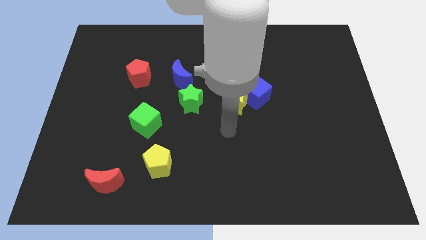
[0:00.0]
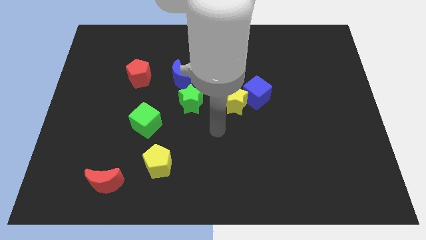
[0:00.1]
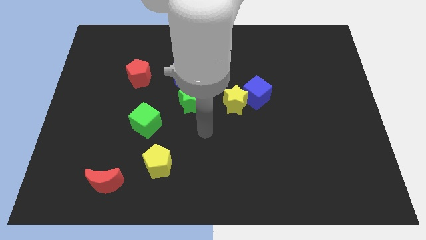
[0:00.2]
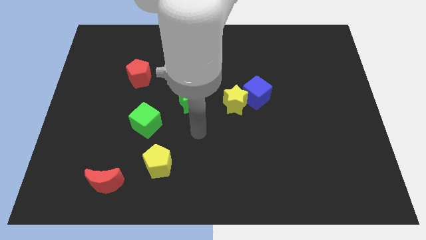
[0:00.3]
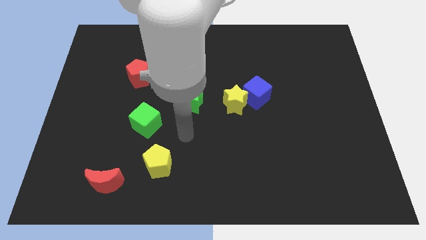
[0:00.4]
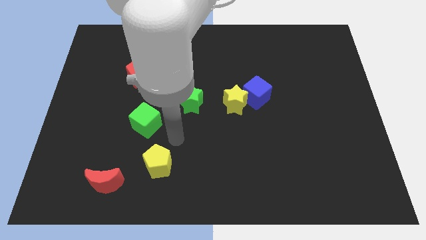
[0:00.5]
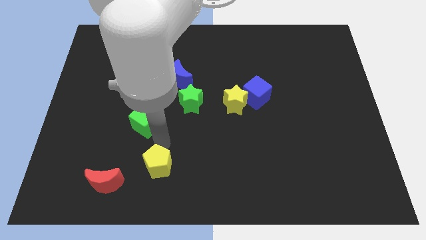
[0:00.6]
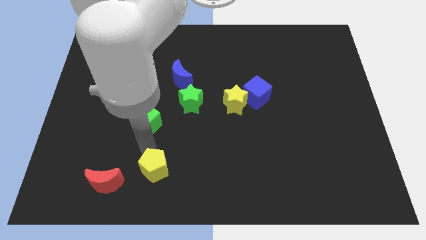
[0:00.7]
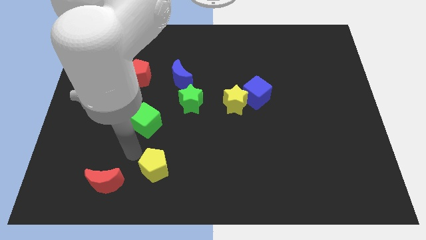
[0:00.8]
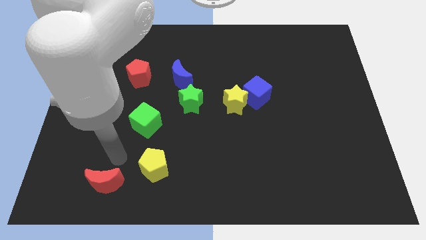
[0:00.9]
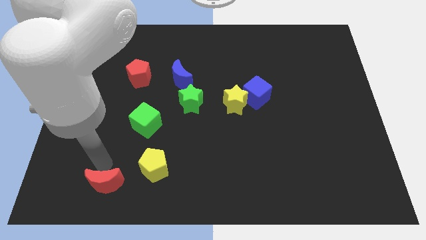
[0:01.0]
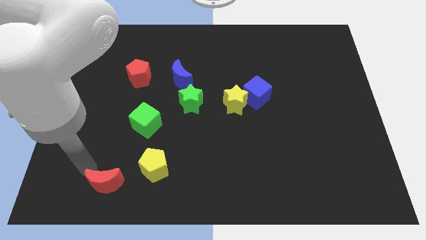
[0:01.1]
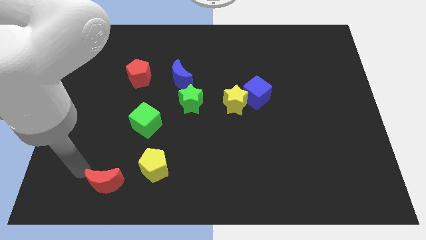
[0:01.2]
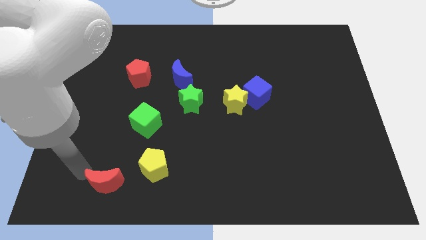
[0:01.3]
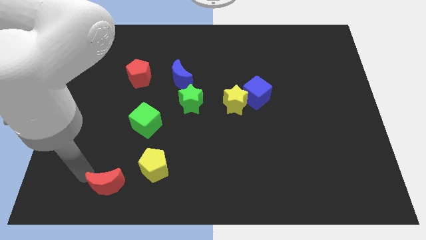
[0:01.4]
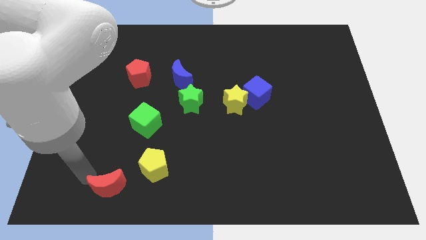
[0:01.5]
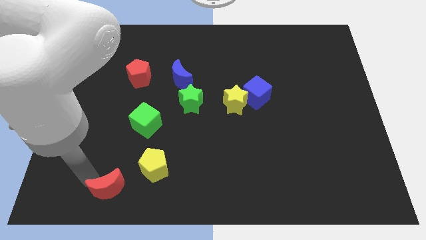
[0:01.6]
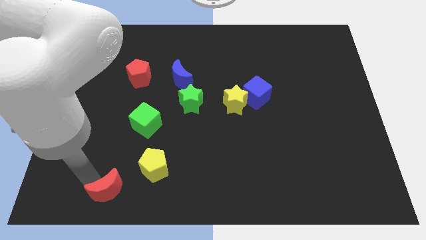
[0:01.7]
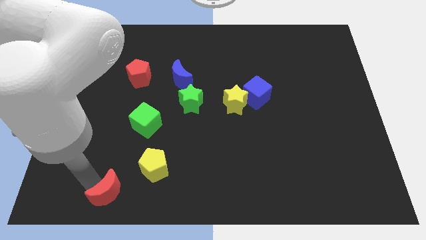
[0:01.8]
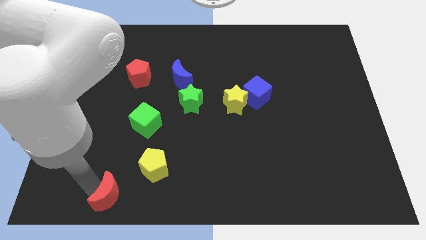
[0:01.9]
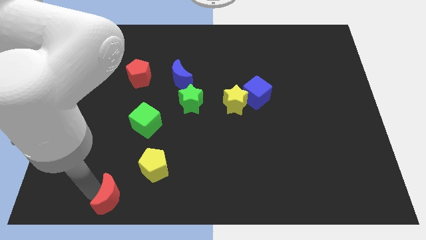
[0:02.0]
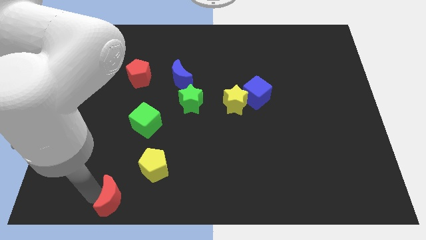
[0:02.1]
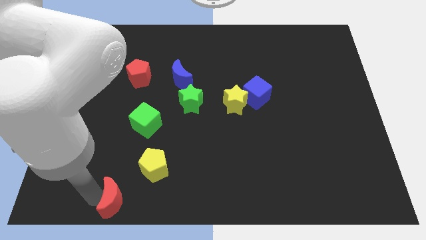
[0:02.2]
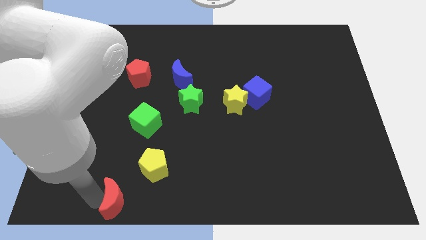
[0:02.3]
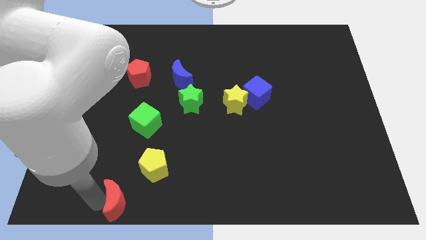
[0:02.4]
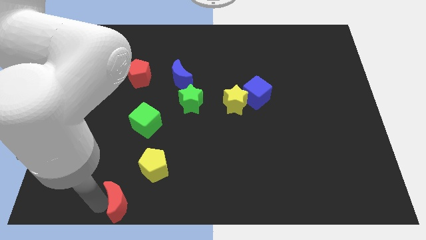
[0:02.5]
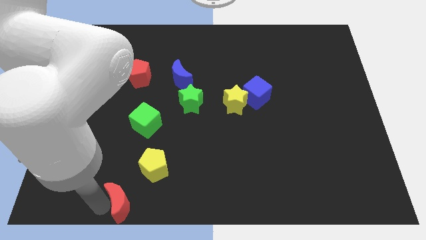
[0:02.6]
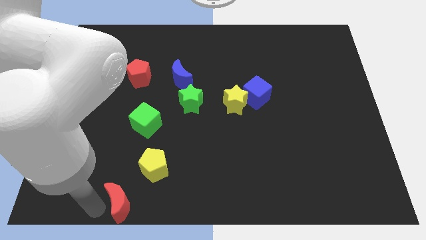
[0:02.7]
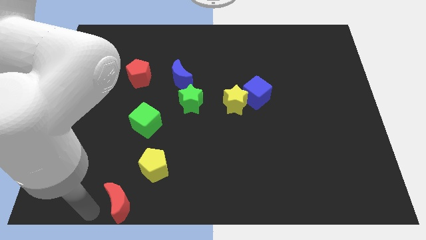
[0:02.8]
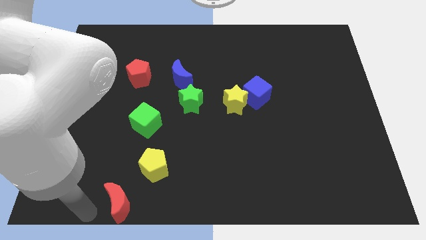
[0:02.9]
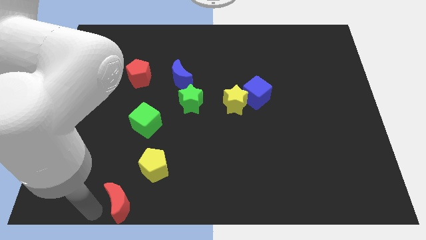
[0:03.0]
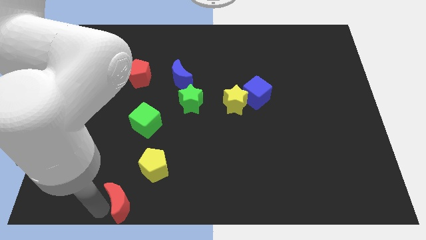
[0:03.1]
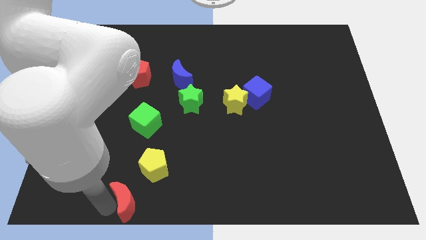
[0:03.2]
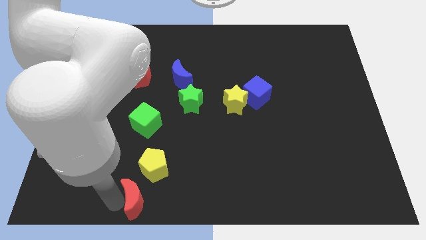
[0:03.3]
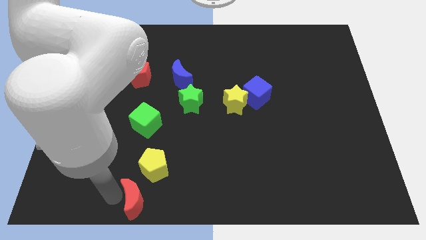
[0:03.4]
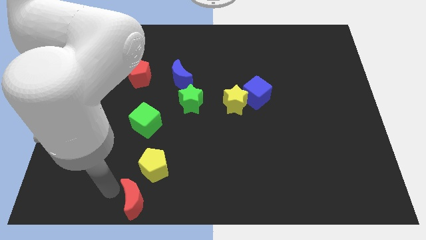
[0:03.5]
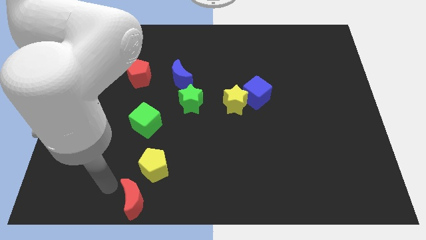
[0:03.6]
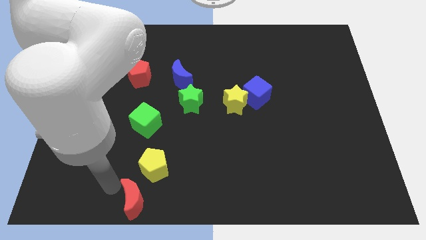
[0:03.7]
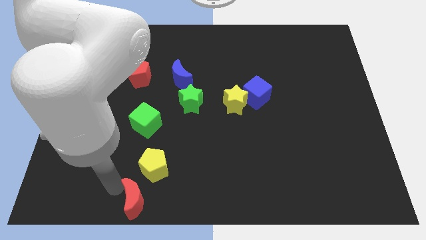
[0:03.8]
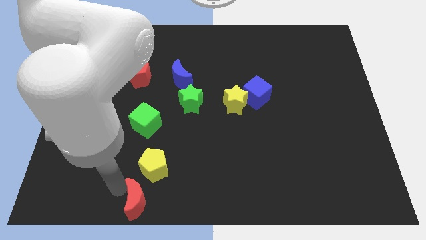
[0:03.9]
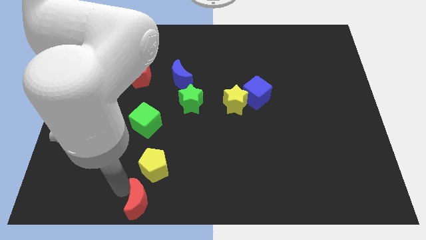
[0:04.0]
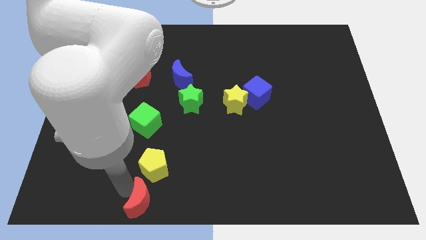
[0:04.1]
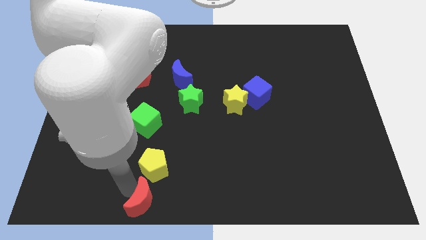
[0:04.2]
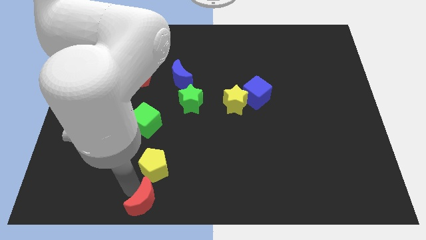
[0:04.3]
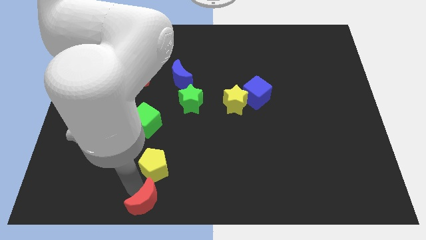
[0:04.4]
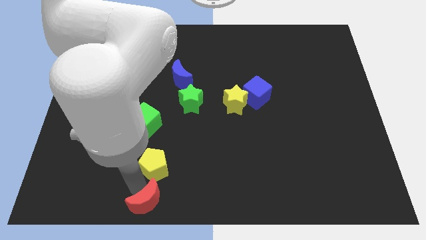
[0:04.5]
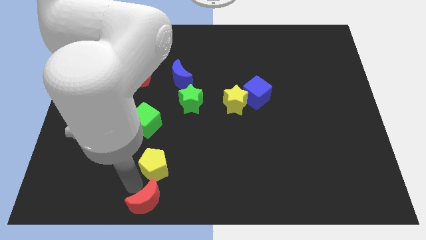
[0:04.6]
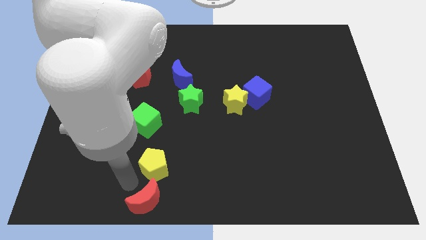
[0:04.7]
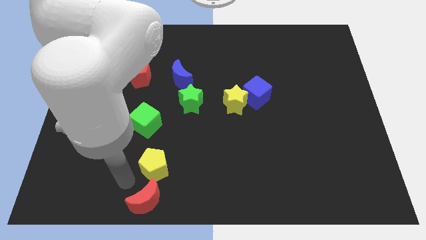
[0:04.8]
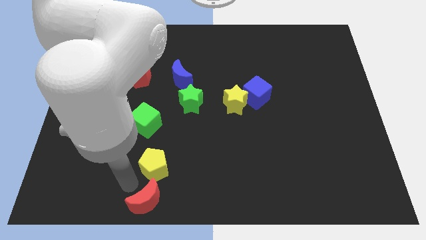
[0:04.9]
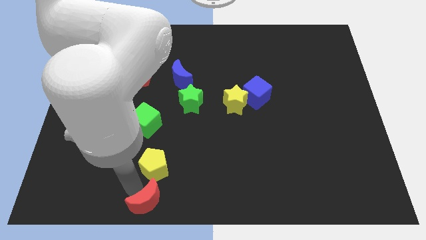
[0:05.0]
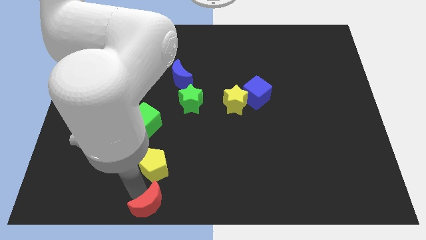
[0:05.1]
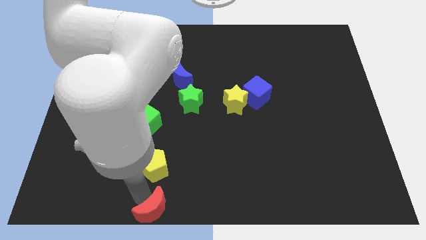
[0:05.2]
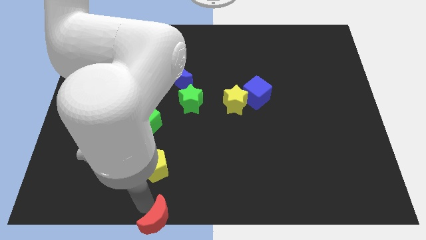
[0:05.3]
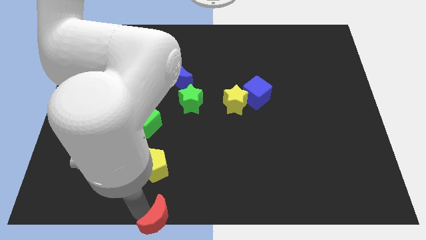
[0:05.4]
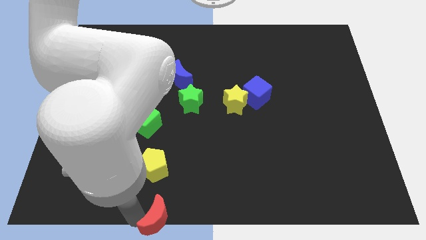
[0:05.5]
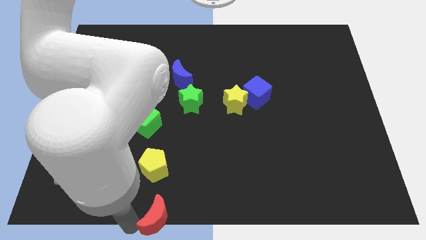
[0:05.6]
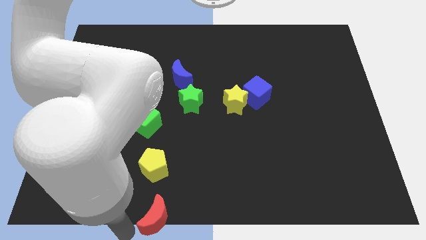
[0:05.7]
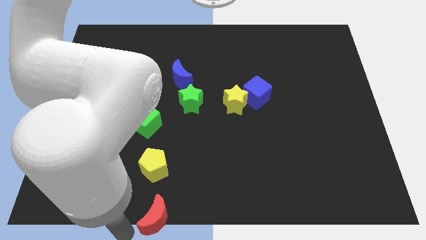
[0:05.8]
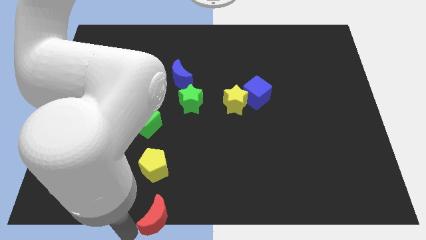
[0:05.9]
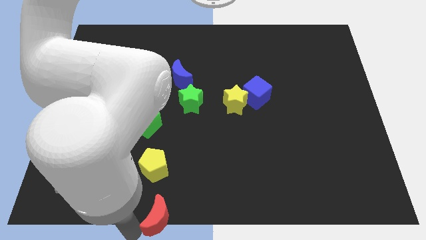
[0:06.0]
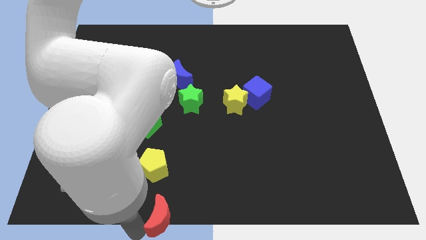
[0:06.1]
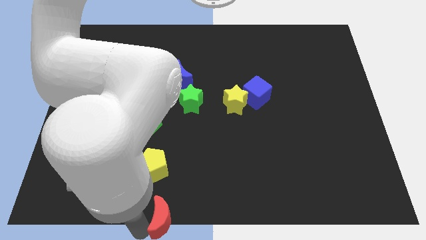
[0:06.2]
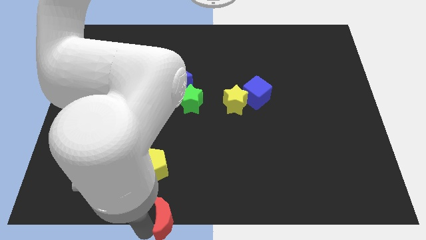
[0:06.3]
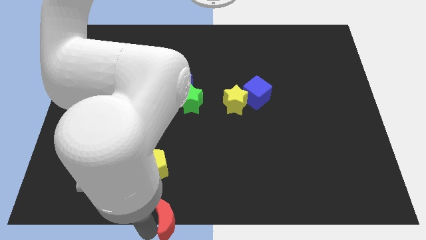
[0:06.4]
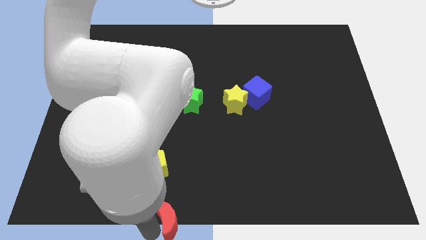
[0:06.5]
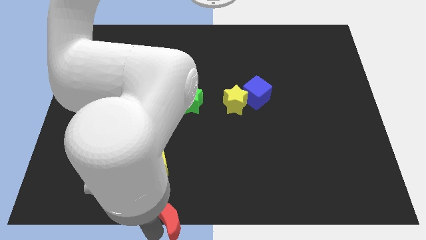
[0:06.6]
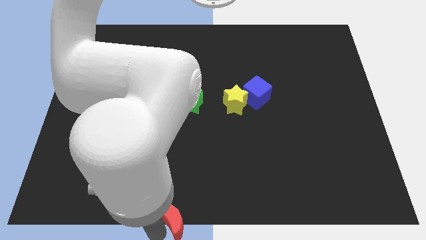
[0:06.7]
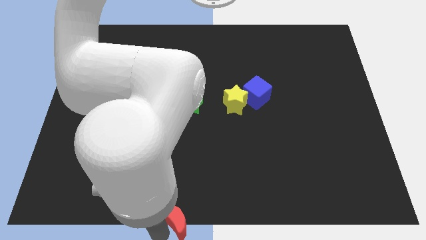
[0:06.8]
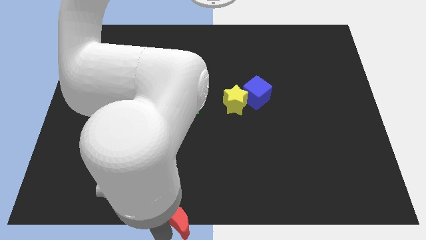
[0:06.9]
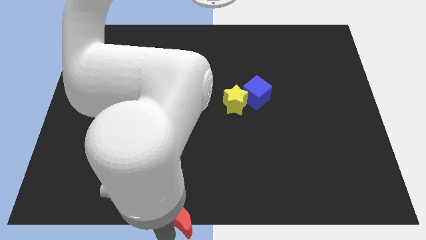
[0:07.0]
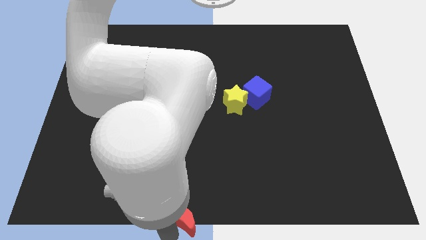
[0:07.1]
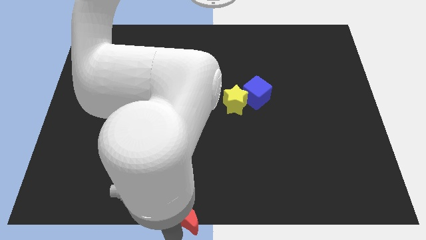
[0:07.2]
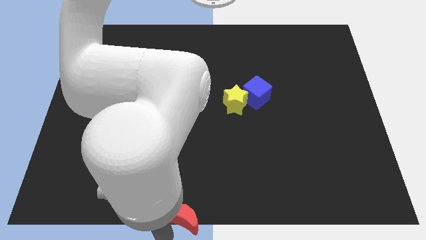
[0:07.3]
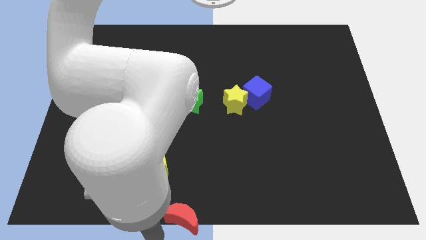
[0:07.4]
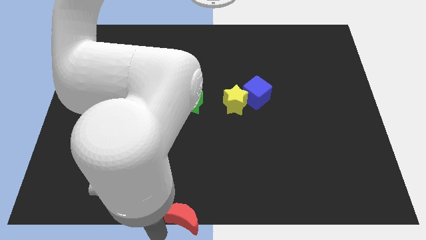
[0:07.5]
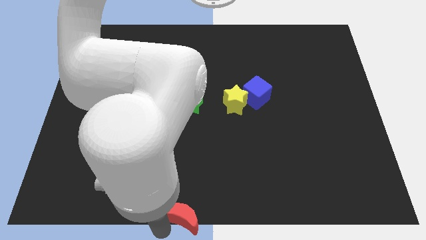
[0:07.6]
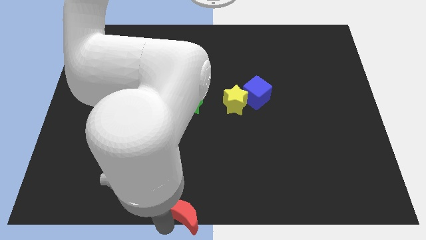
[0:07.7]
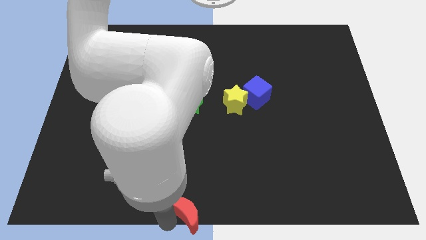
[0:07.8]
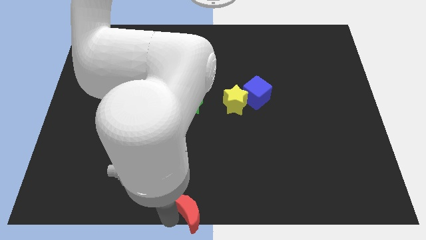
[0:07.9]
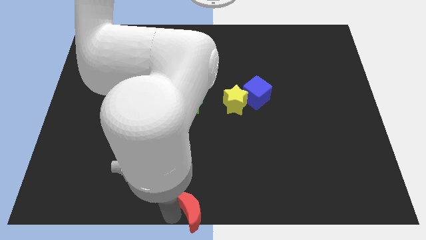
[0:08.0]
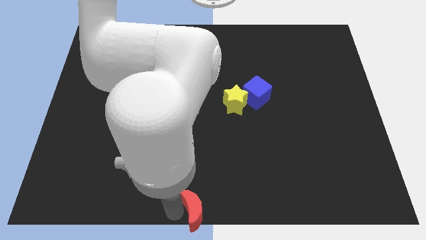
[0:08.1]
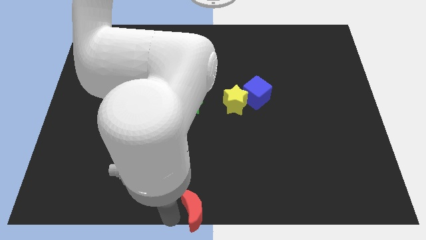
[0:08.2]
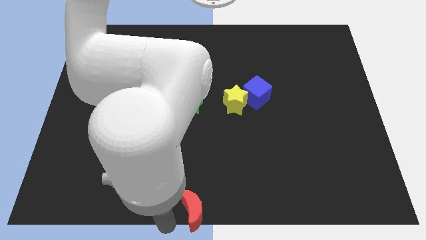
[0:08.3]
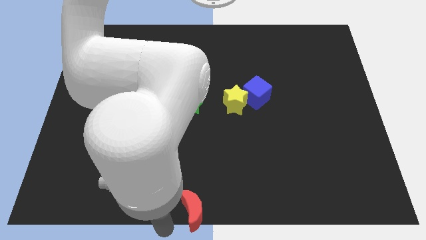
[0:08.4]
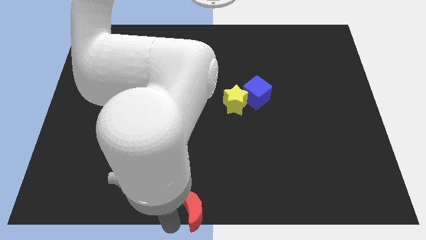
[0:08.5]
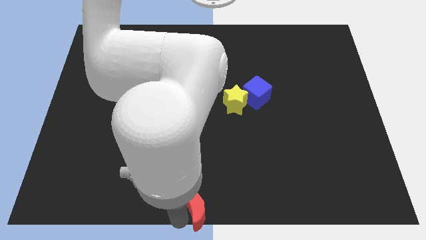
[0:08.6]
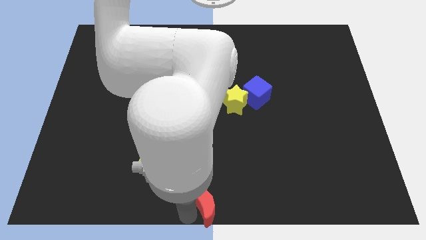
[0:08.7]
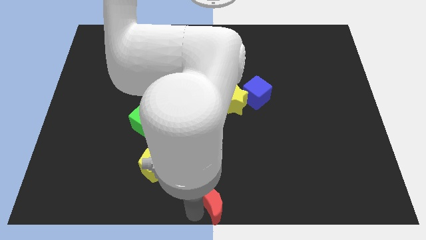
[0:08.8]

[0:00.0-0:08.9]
move the red moon right
